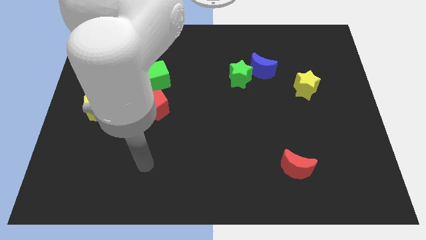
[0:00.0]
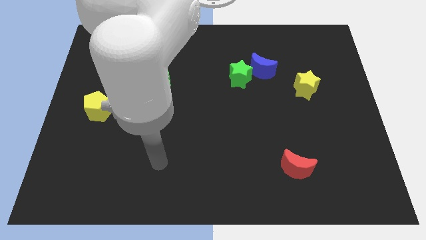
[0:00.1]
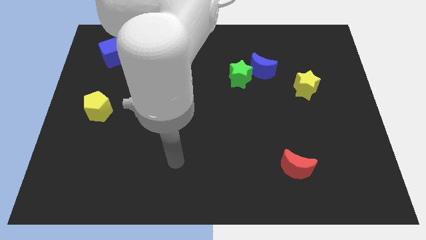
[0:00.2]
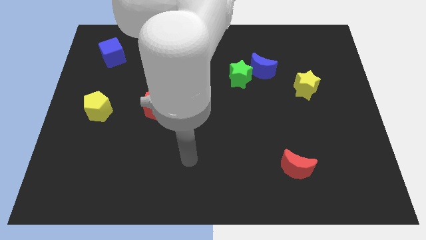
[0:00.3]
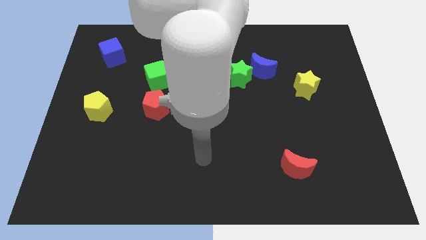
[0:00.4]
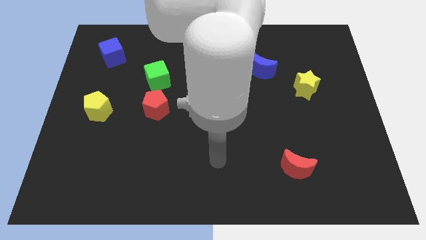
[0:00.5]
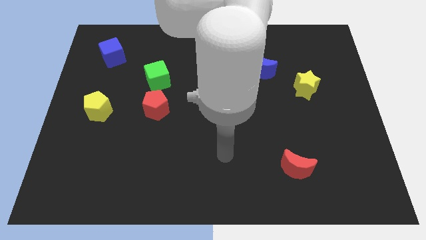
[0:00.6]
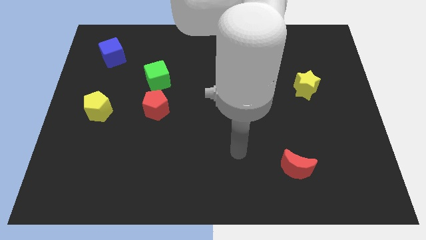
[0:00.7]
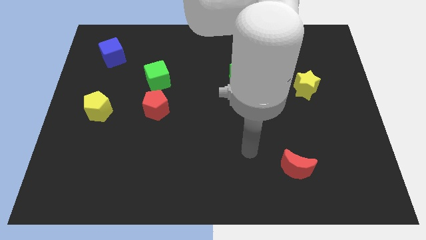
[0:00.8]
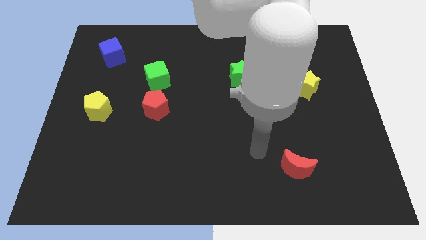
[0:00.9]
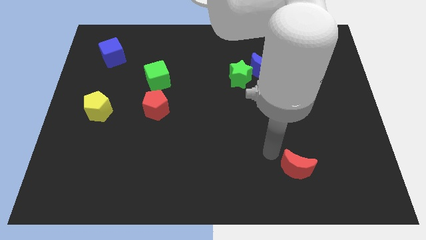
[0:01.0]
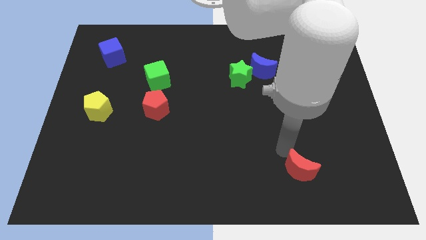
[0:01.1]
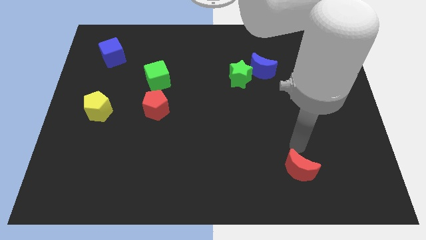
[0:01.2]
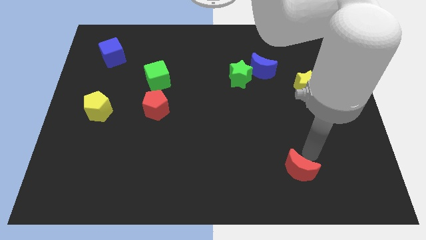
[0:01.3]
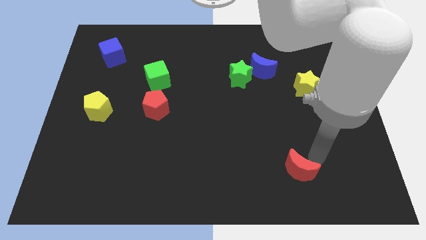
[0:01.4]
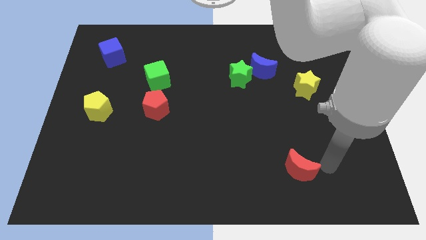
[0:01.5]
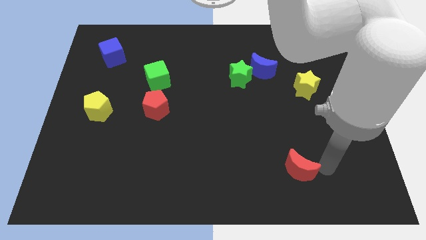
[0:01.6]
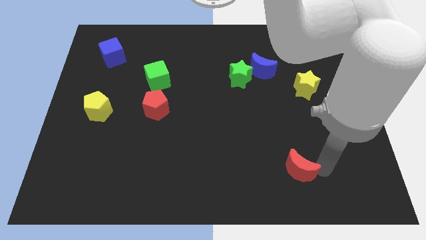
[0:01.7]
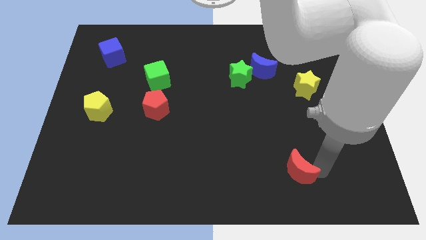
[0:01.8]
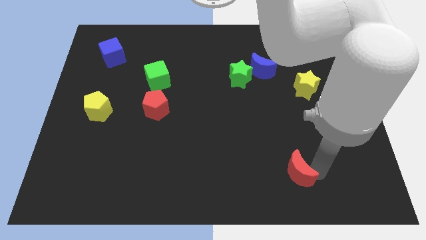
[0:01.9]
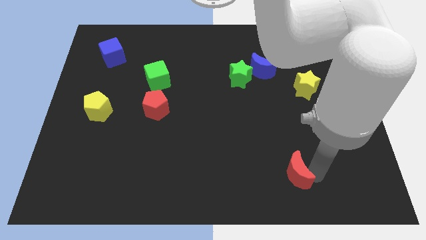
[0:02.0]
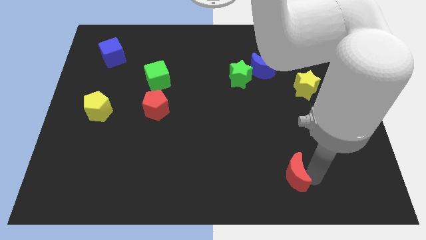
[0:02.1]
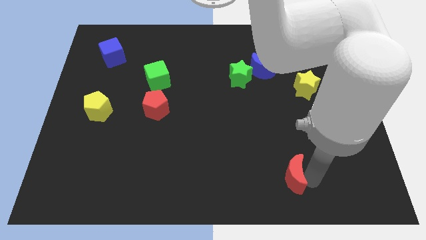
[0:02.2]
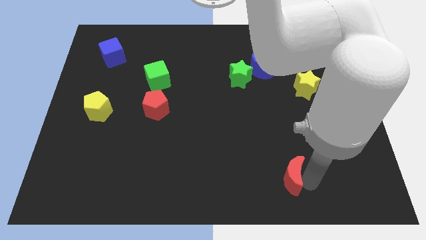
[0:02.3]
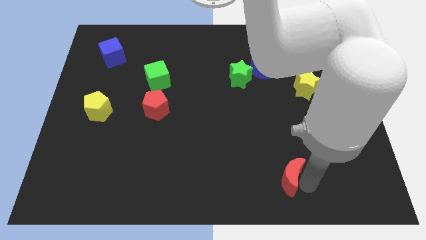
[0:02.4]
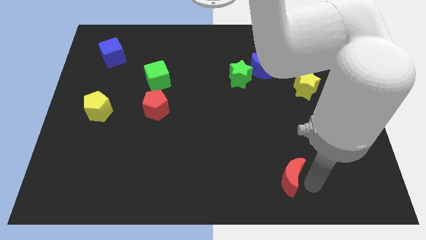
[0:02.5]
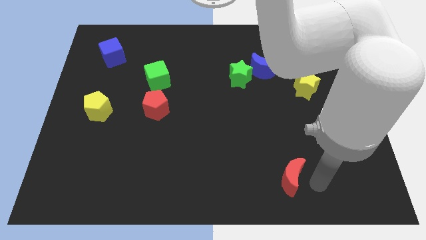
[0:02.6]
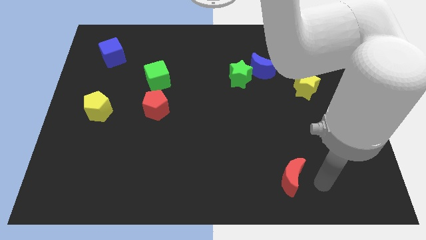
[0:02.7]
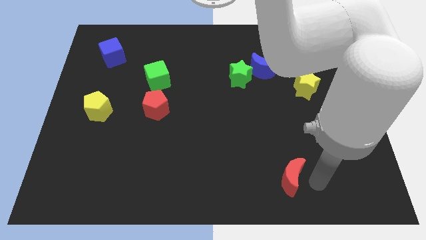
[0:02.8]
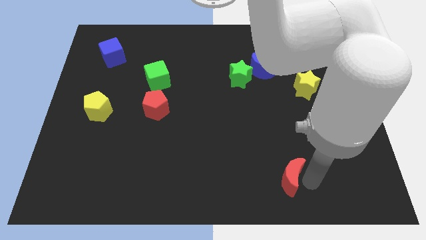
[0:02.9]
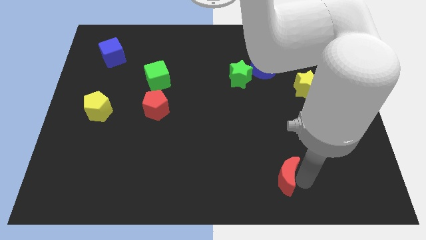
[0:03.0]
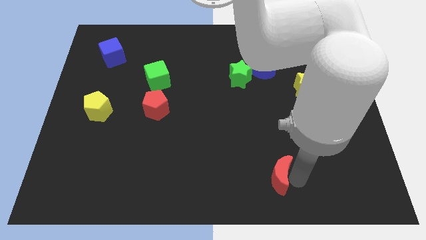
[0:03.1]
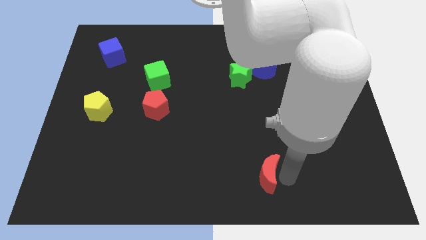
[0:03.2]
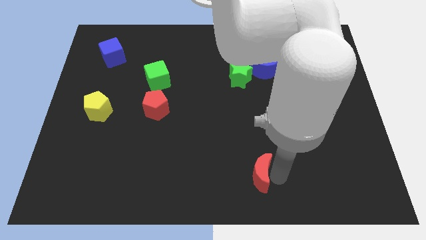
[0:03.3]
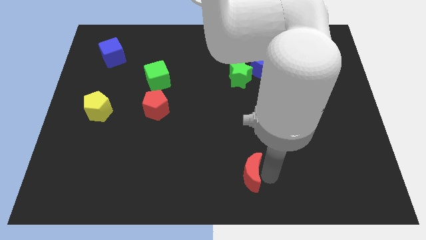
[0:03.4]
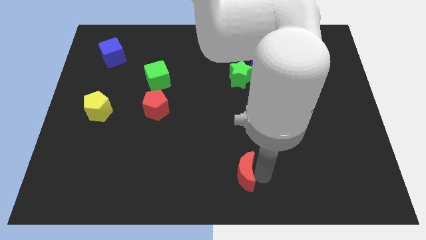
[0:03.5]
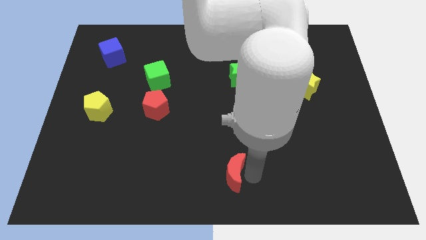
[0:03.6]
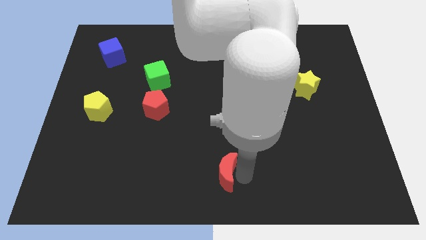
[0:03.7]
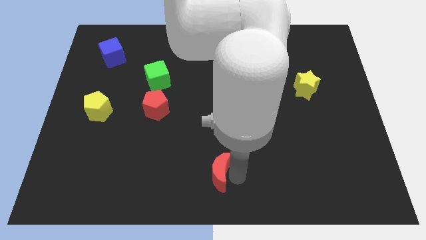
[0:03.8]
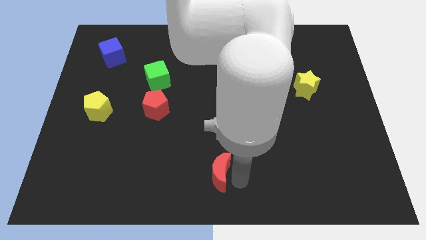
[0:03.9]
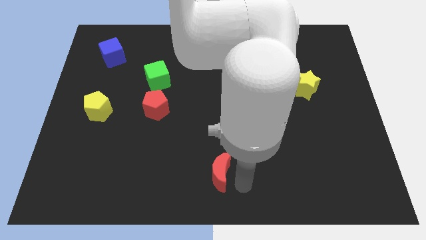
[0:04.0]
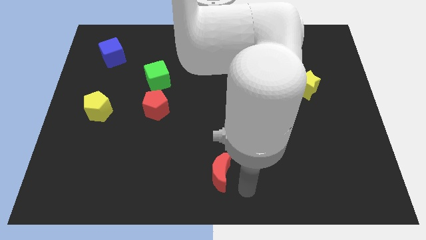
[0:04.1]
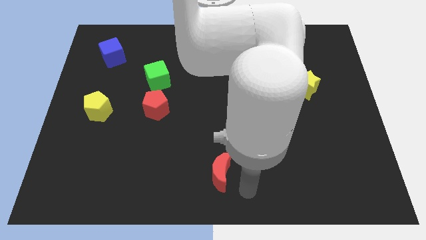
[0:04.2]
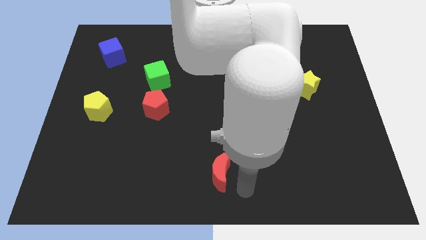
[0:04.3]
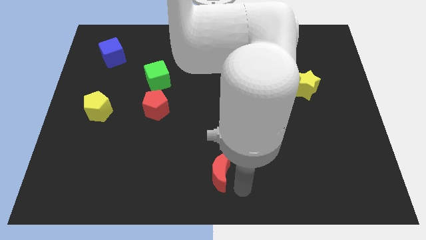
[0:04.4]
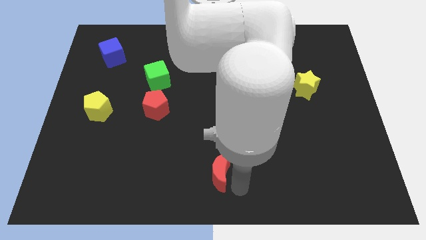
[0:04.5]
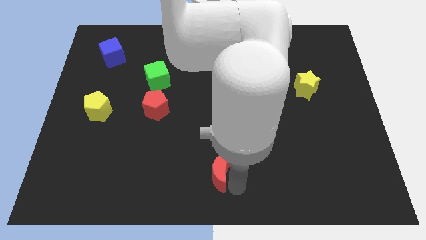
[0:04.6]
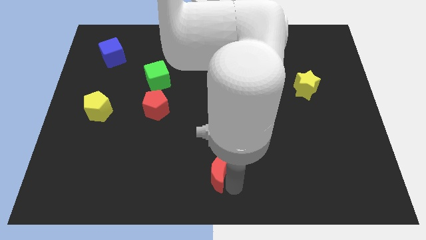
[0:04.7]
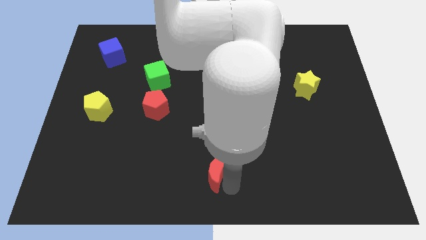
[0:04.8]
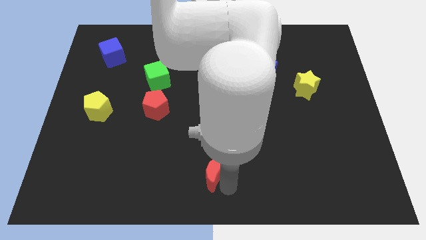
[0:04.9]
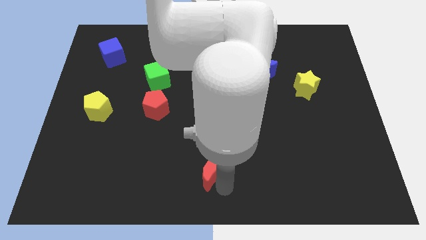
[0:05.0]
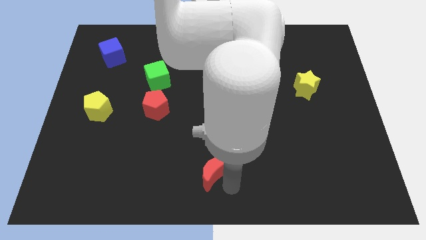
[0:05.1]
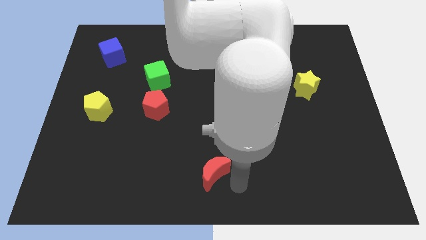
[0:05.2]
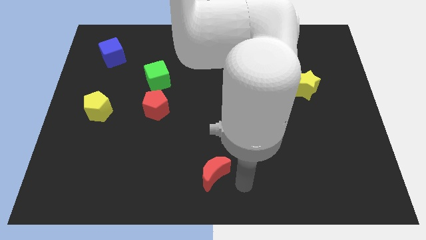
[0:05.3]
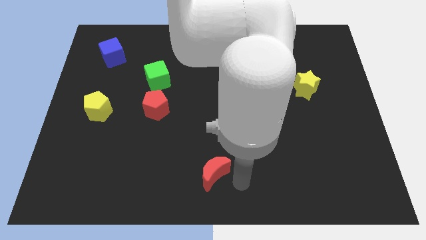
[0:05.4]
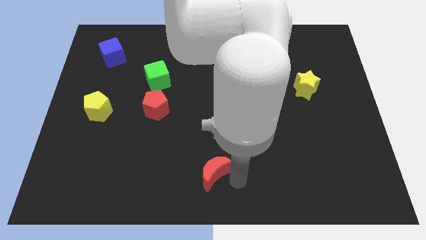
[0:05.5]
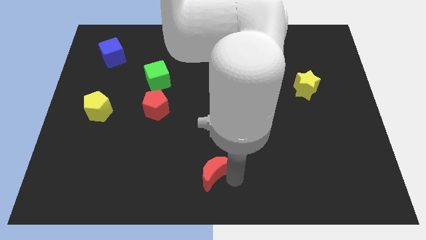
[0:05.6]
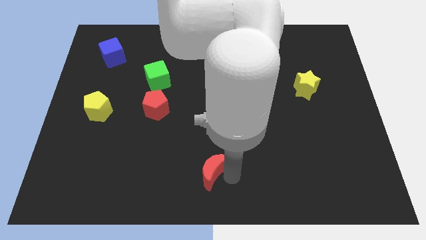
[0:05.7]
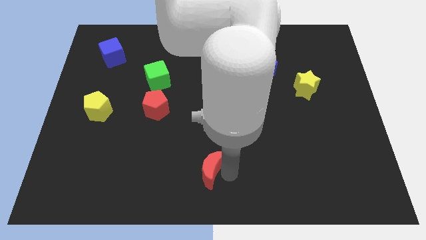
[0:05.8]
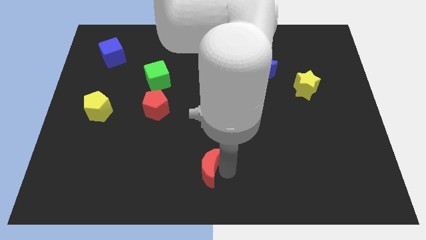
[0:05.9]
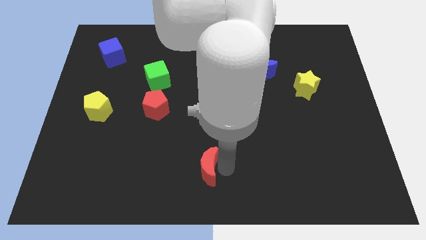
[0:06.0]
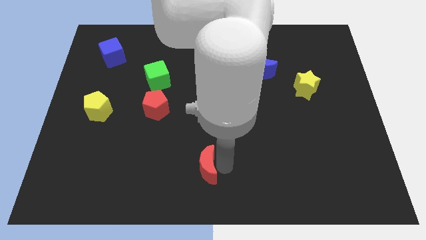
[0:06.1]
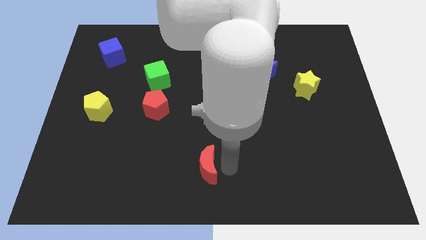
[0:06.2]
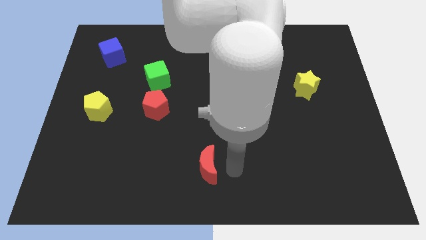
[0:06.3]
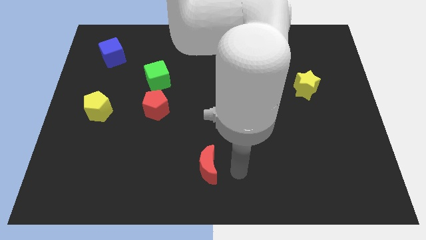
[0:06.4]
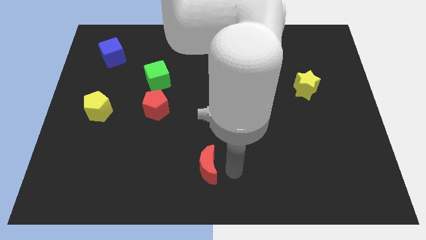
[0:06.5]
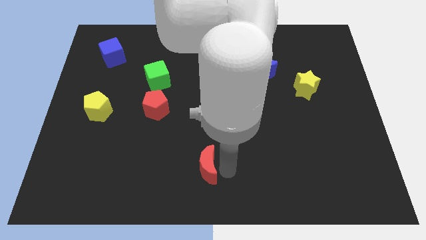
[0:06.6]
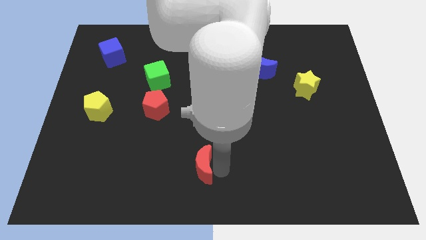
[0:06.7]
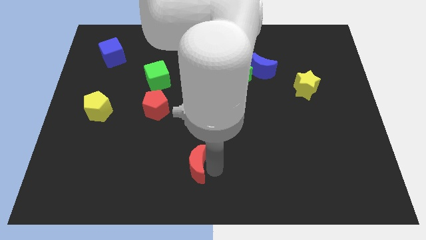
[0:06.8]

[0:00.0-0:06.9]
push the red moon left

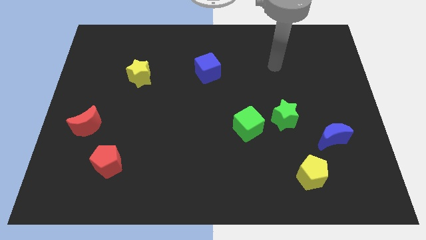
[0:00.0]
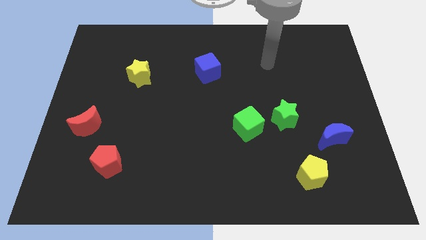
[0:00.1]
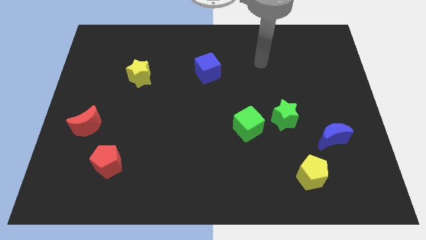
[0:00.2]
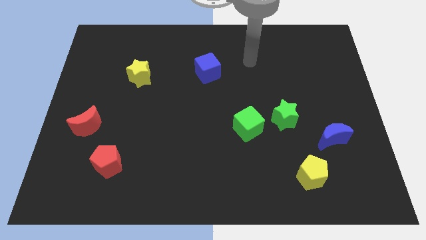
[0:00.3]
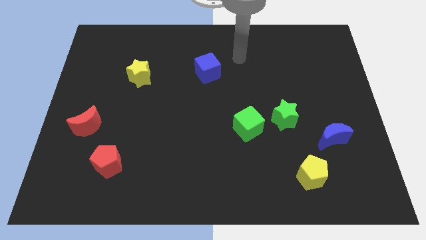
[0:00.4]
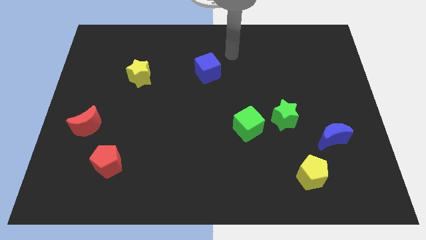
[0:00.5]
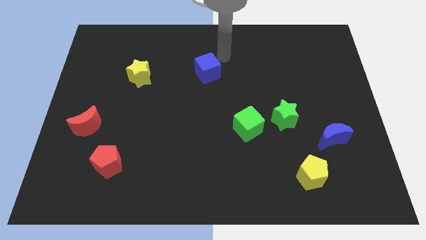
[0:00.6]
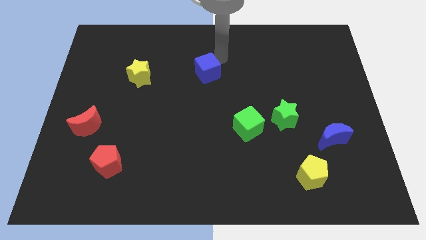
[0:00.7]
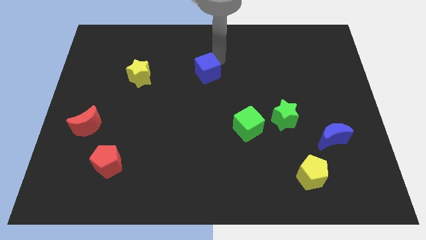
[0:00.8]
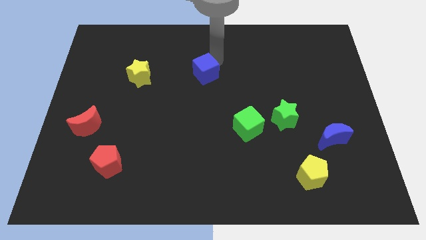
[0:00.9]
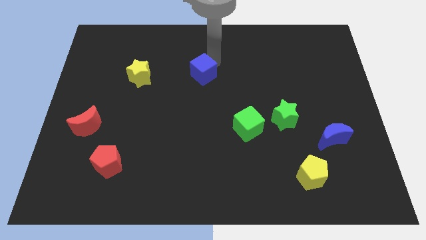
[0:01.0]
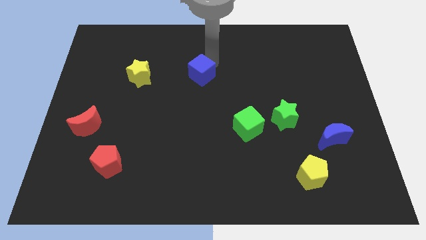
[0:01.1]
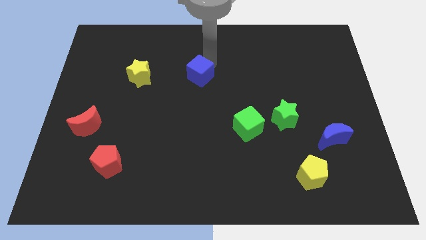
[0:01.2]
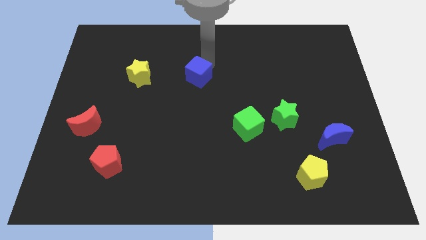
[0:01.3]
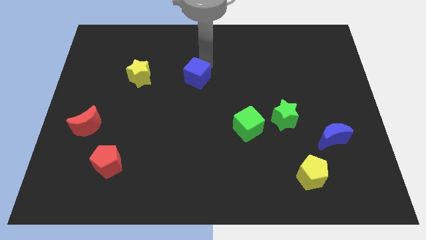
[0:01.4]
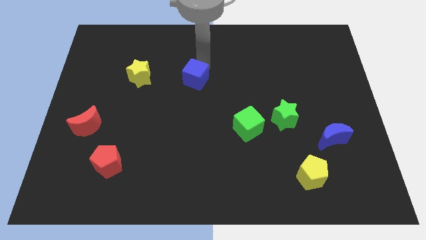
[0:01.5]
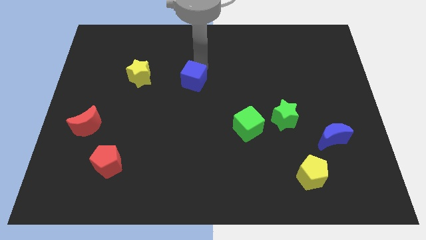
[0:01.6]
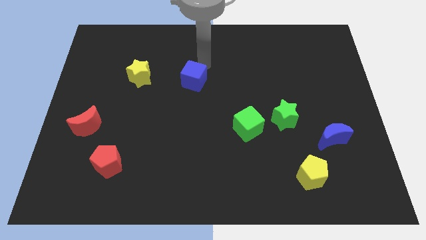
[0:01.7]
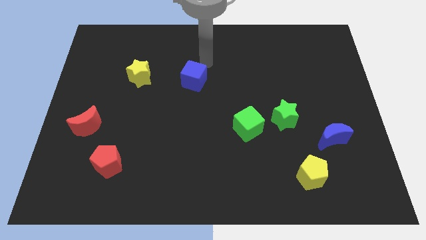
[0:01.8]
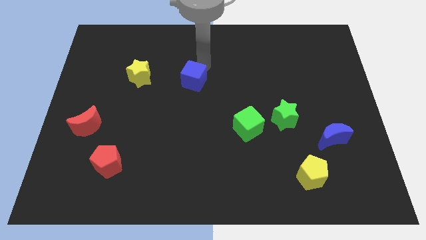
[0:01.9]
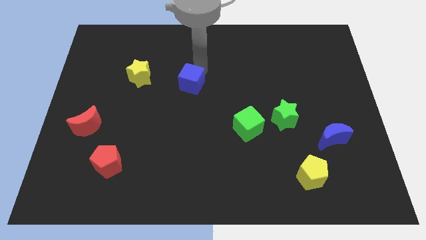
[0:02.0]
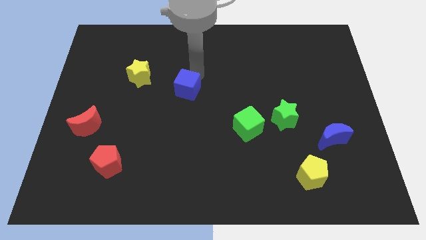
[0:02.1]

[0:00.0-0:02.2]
slightly push the blue cube down and left
